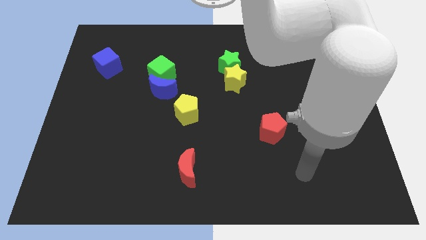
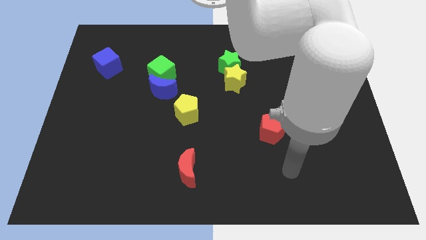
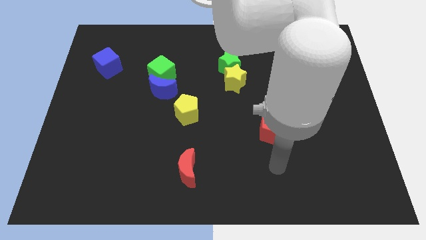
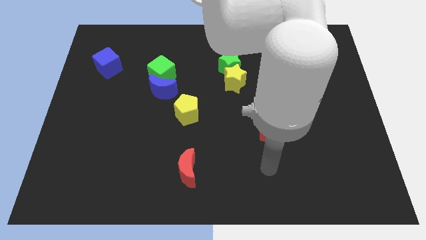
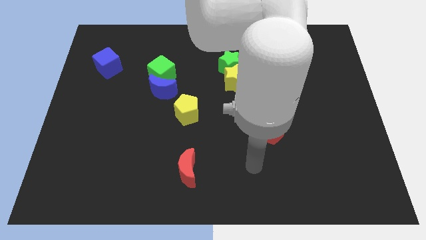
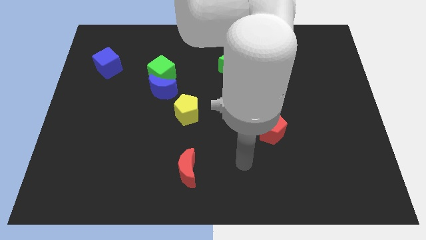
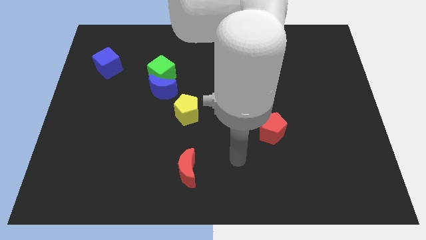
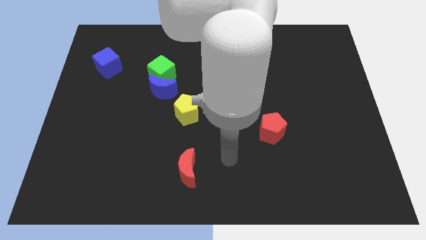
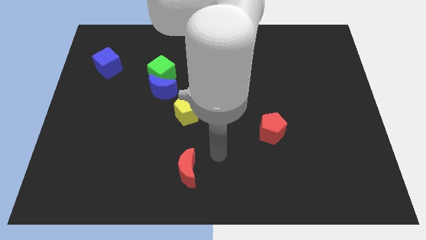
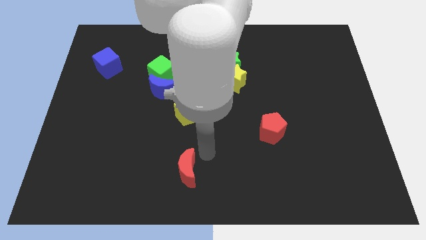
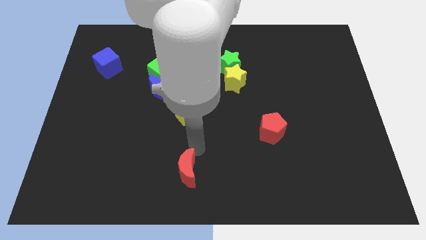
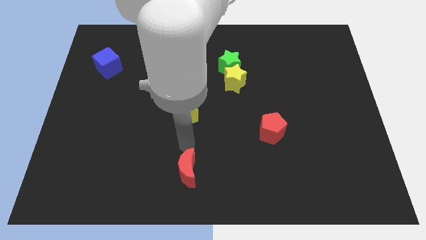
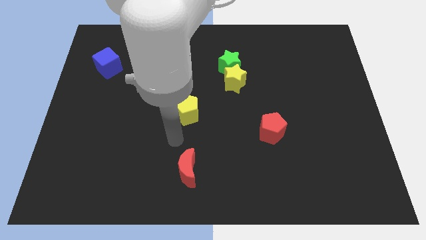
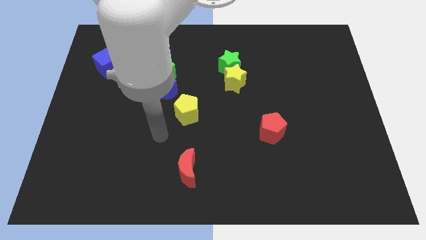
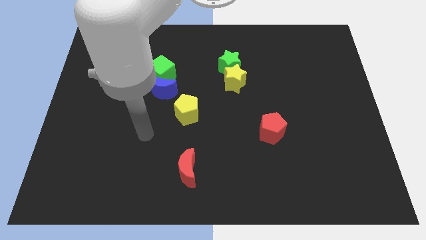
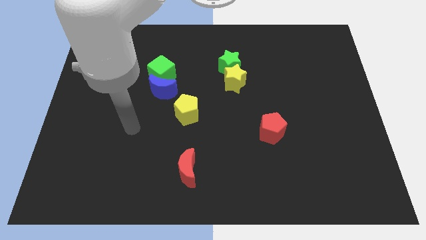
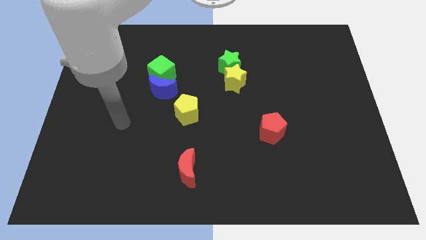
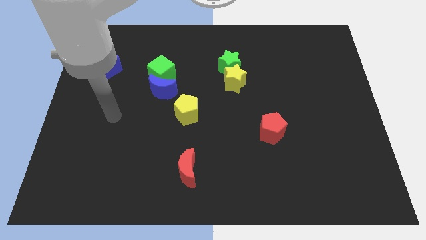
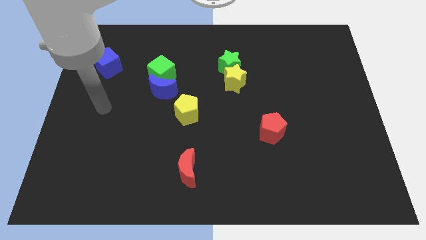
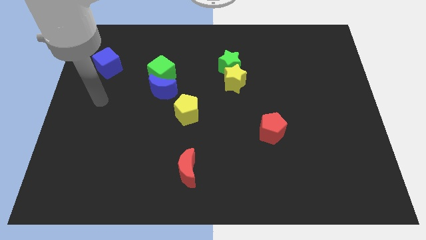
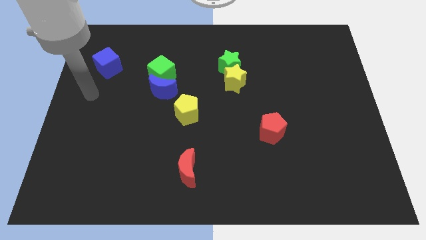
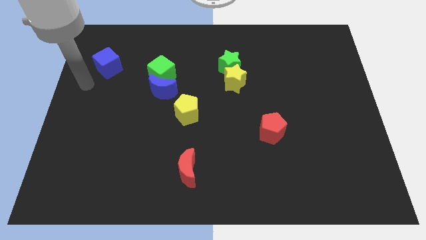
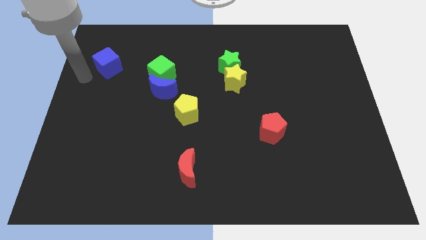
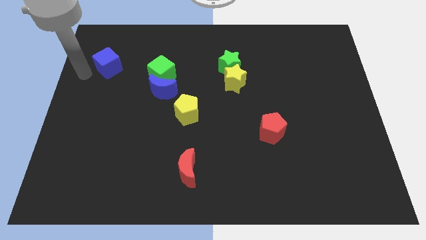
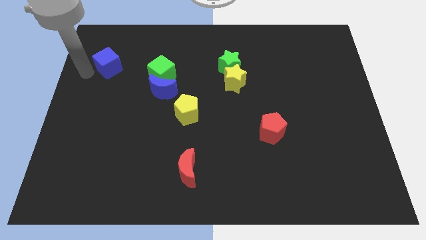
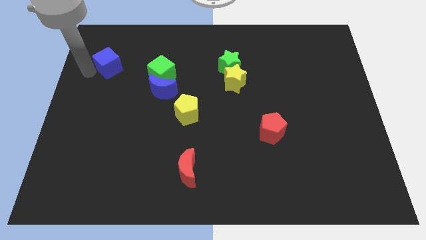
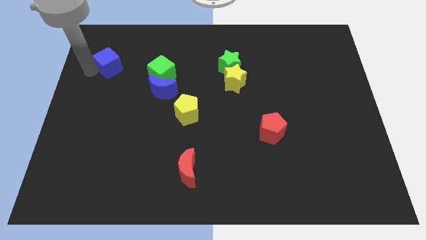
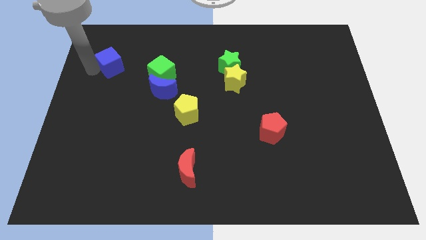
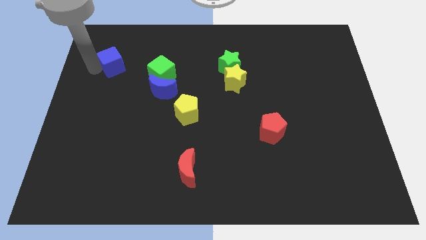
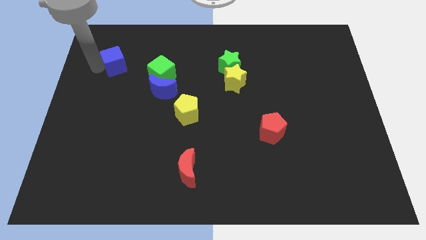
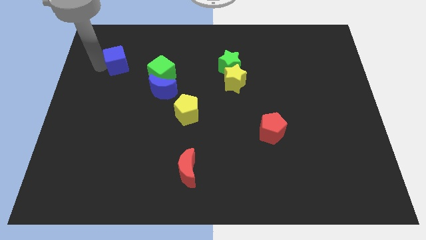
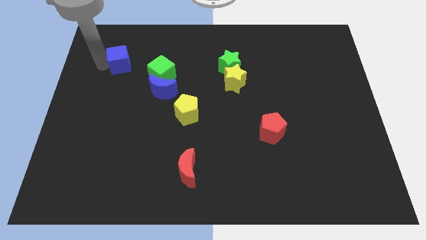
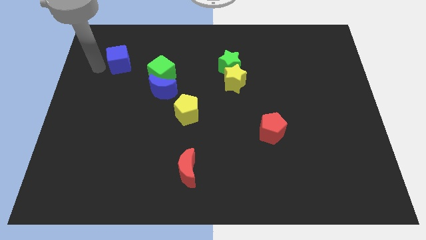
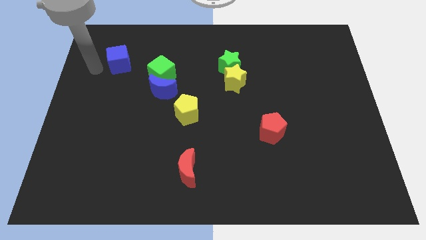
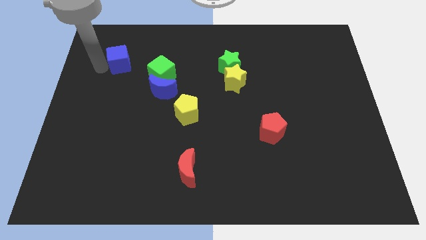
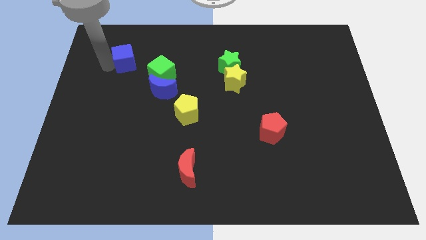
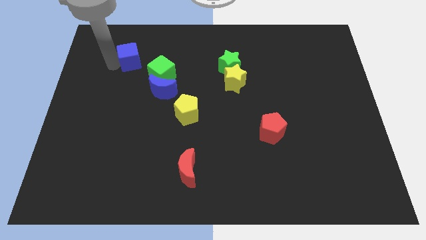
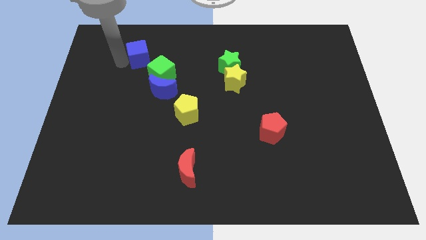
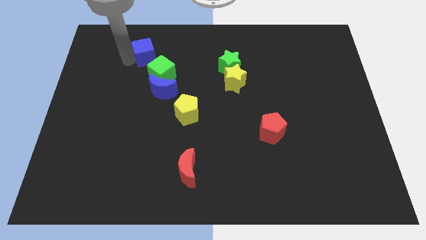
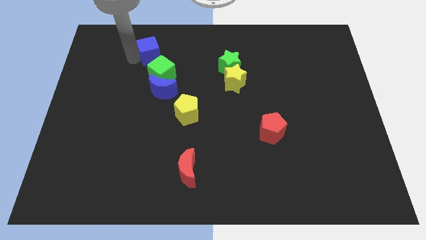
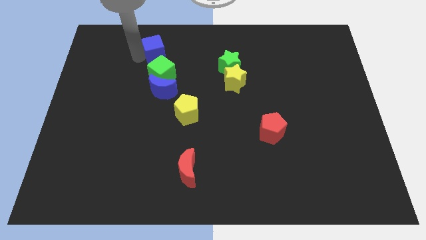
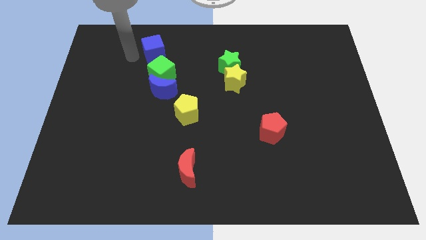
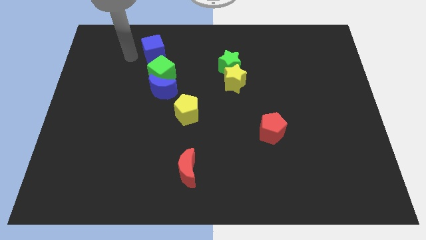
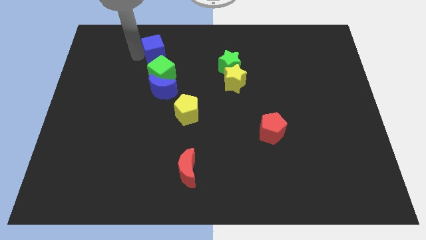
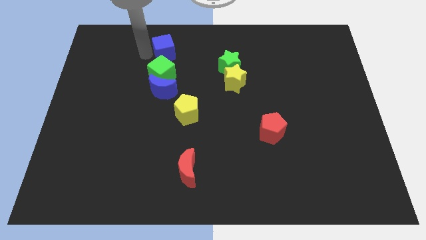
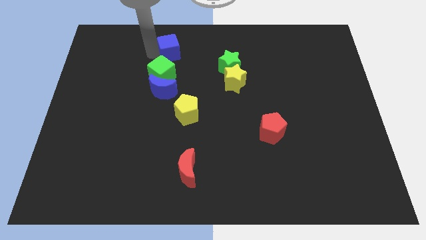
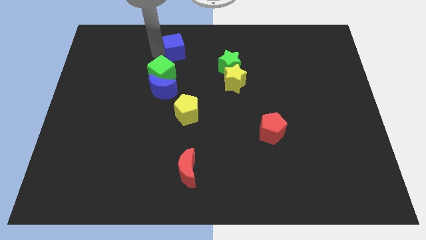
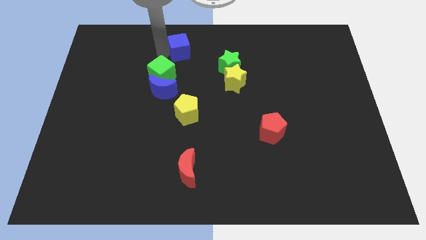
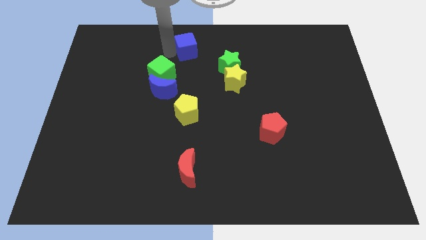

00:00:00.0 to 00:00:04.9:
move the blue cube to the top

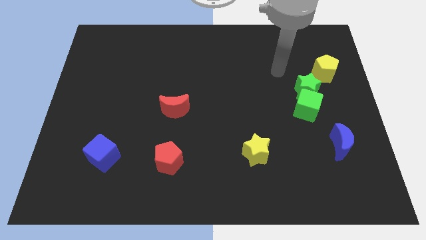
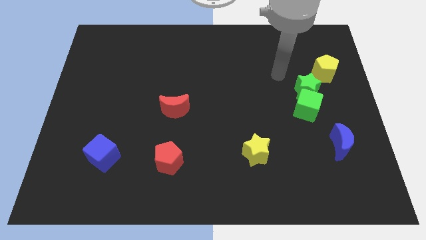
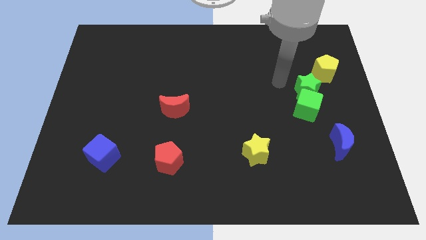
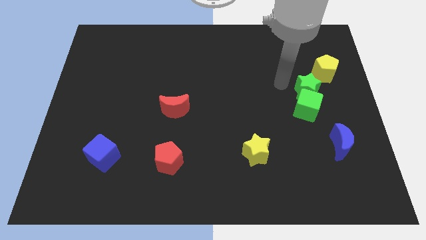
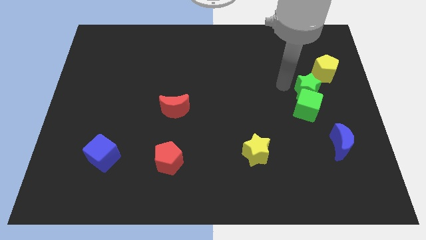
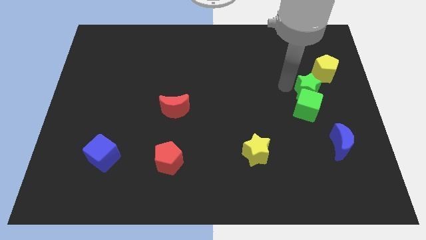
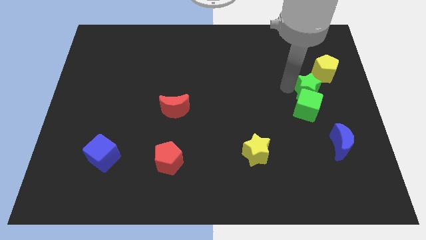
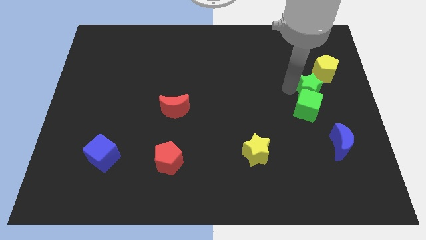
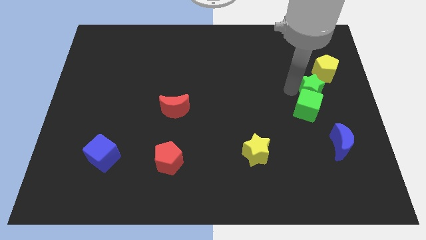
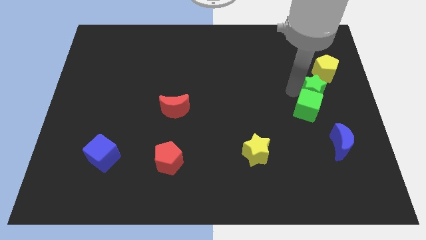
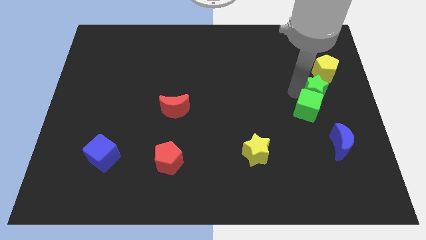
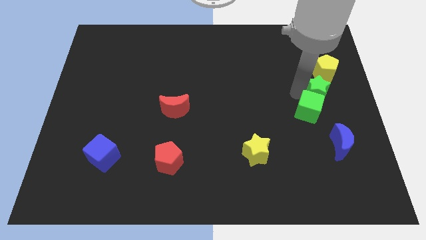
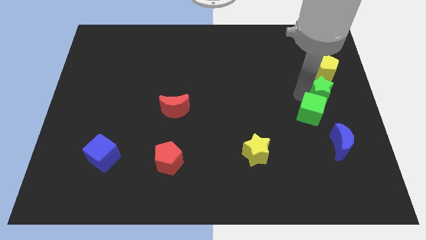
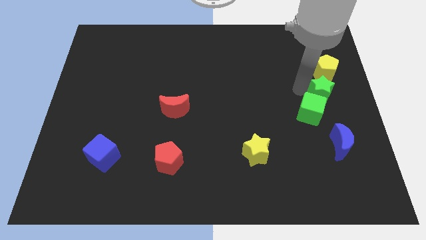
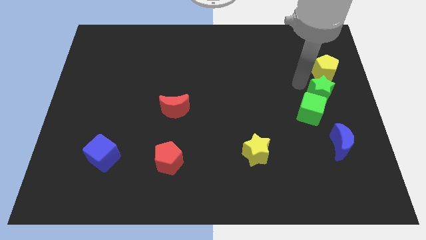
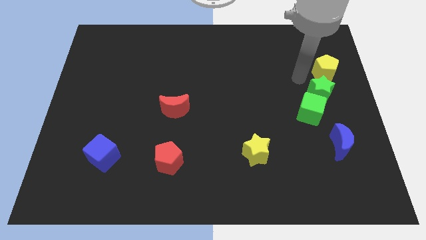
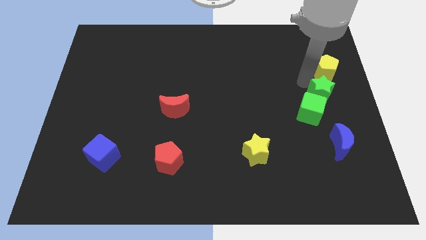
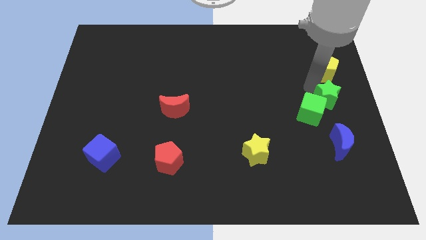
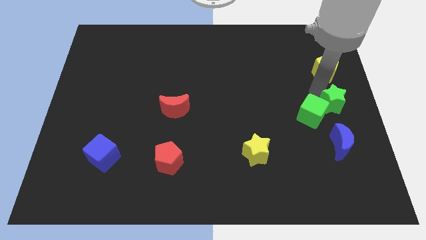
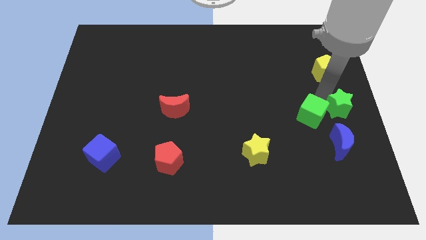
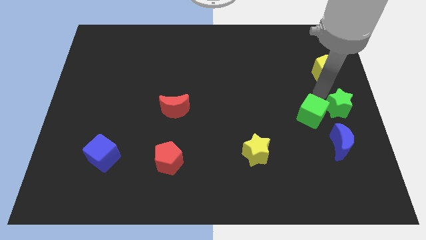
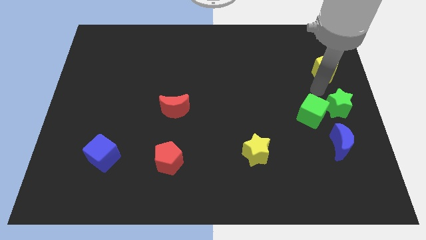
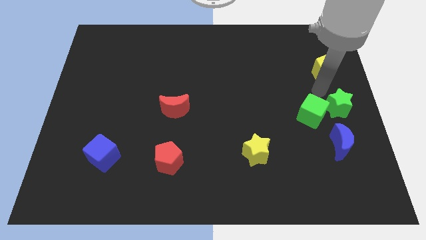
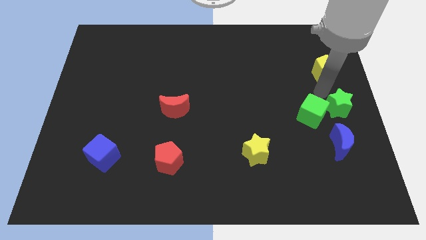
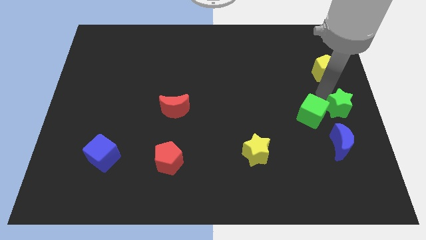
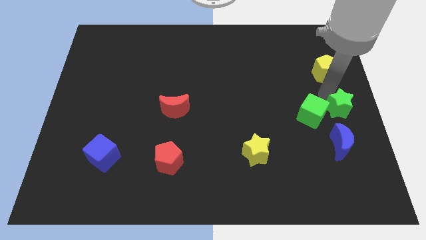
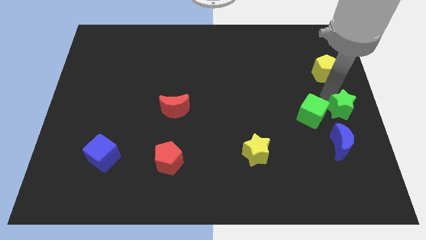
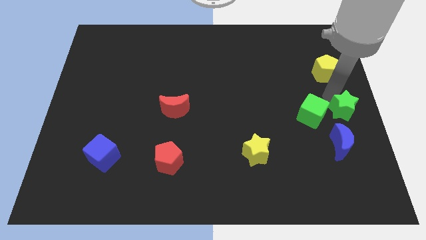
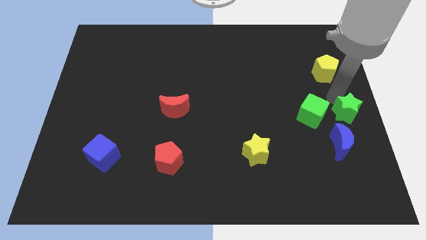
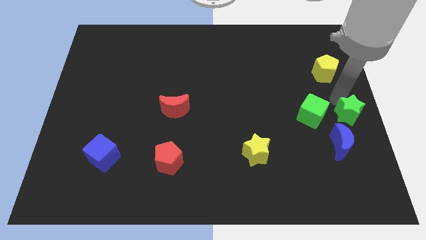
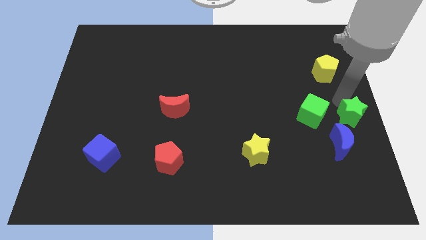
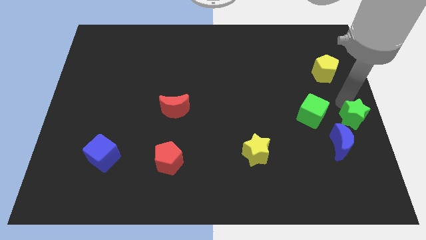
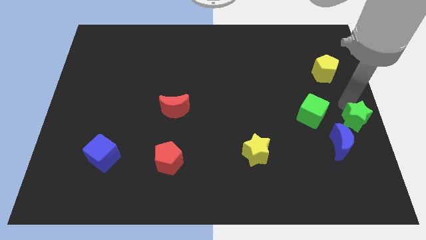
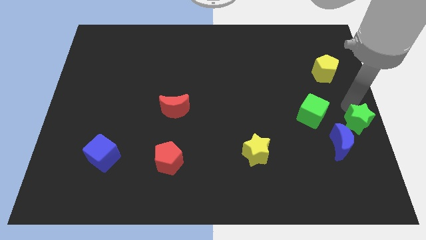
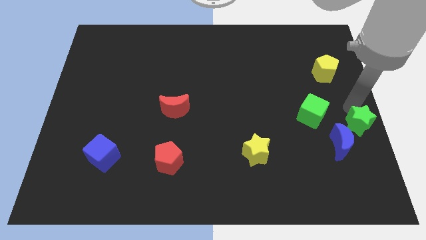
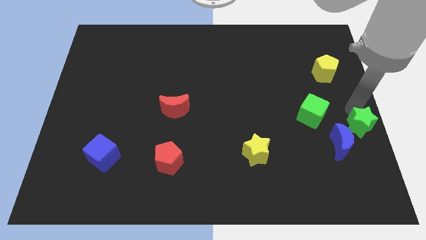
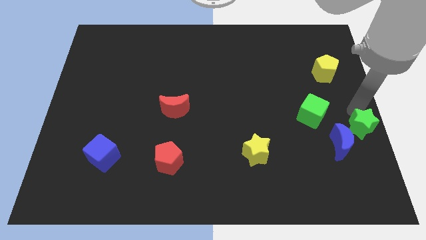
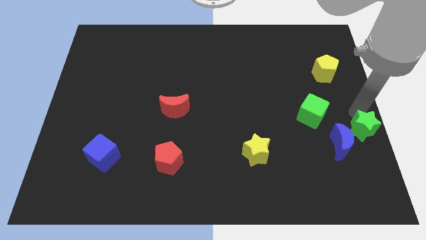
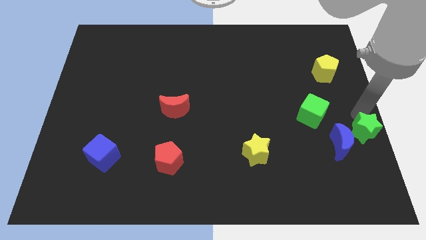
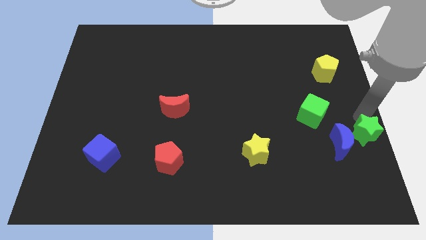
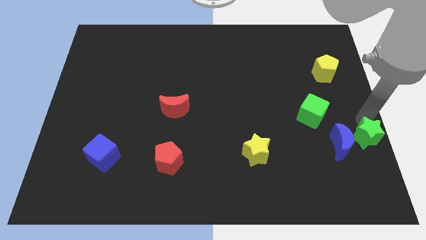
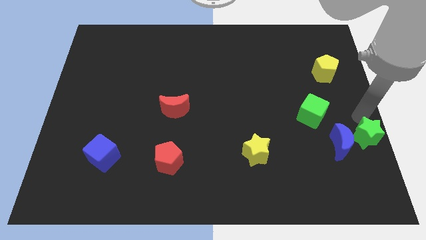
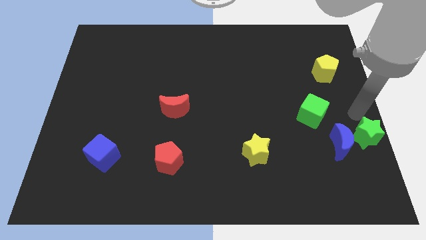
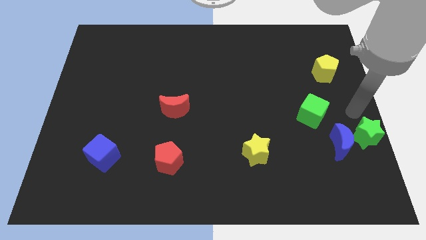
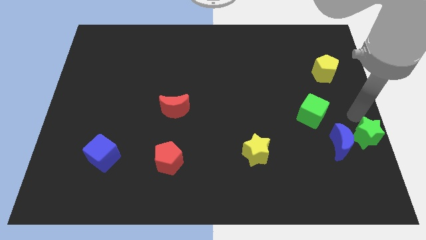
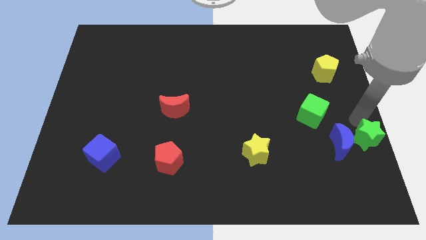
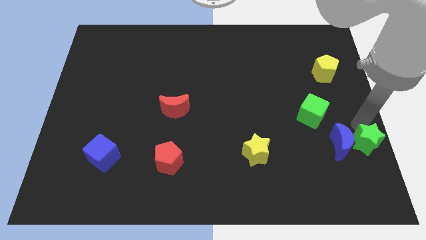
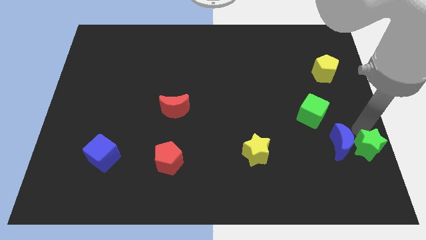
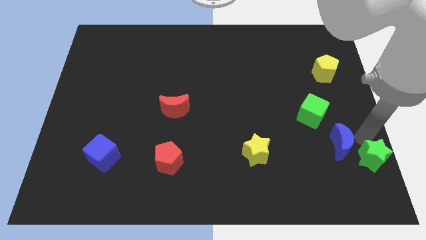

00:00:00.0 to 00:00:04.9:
push the green star to the bottom right
